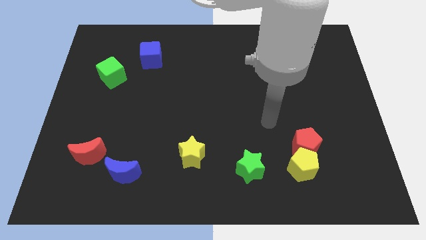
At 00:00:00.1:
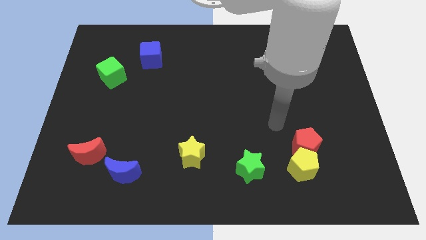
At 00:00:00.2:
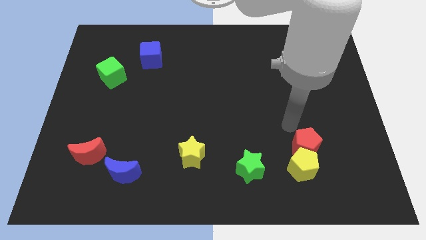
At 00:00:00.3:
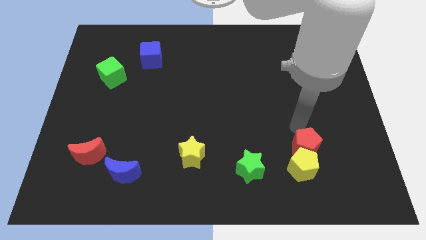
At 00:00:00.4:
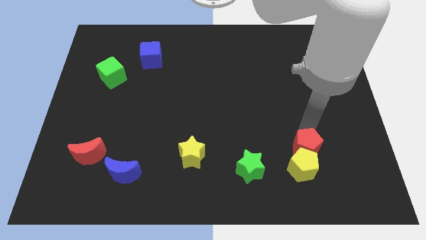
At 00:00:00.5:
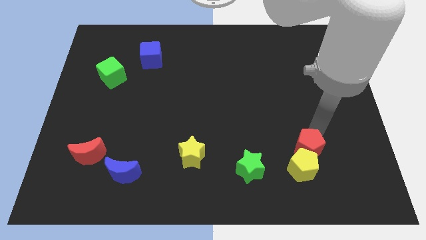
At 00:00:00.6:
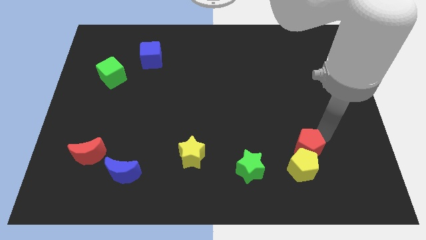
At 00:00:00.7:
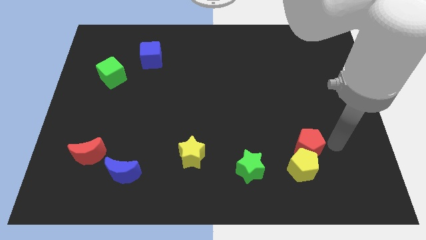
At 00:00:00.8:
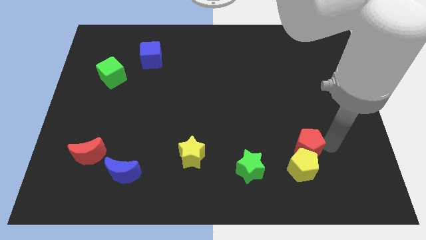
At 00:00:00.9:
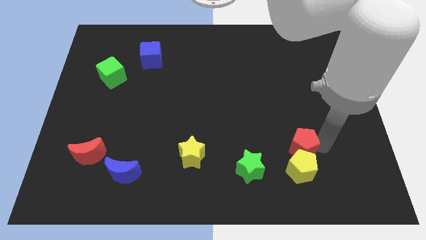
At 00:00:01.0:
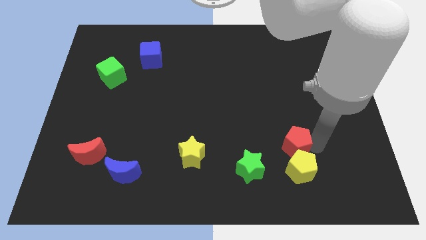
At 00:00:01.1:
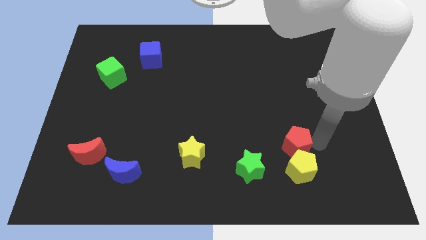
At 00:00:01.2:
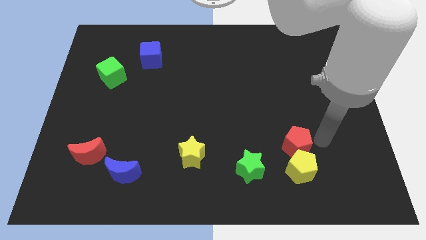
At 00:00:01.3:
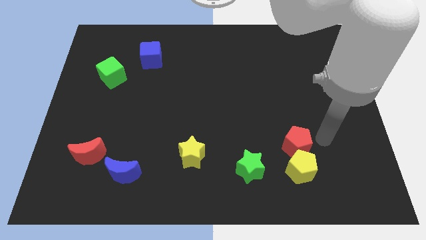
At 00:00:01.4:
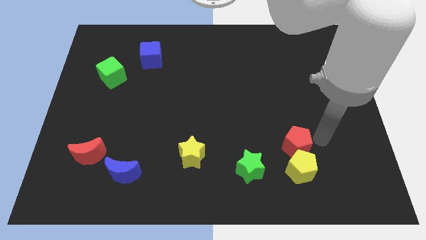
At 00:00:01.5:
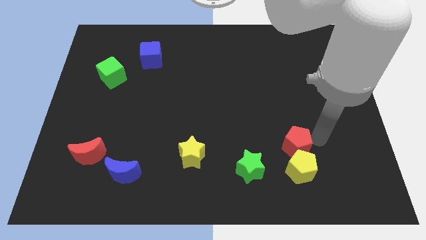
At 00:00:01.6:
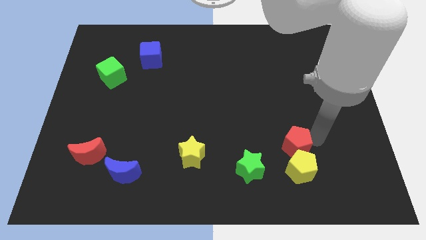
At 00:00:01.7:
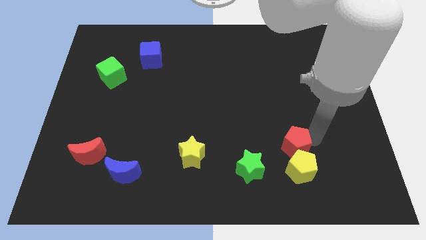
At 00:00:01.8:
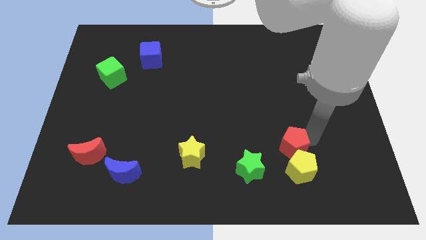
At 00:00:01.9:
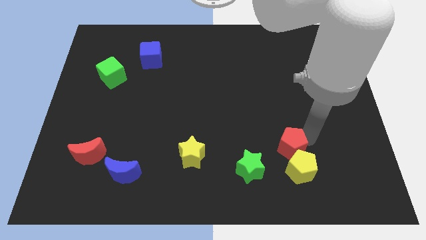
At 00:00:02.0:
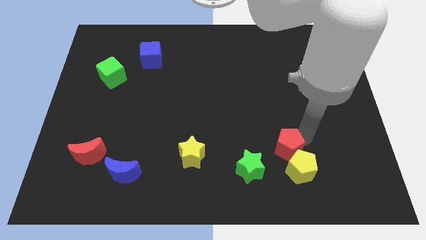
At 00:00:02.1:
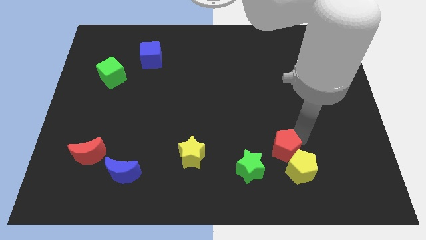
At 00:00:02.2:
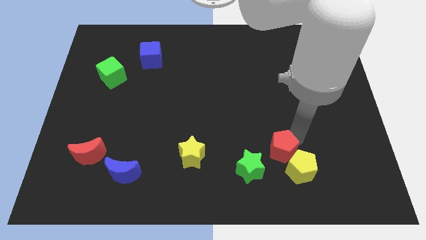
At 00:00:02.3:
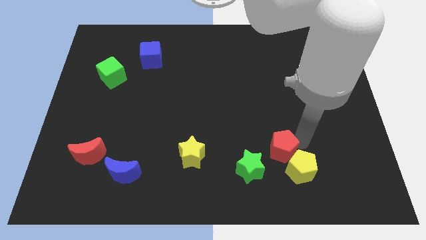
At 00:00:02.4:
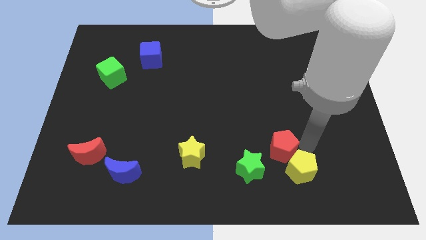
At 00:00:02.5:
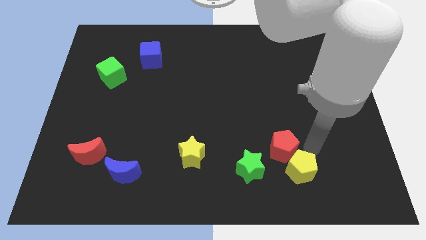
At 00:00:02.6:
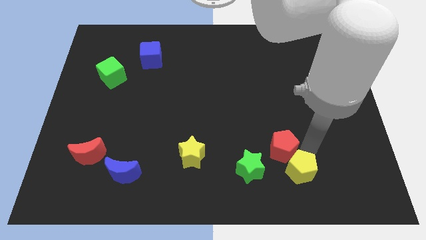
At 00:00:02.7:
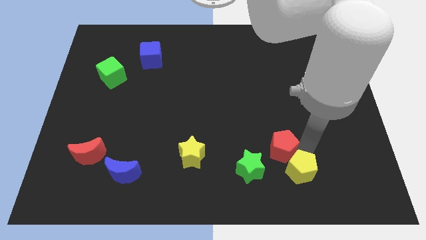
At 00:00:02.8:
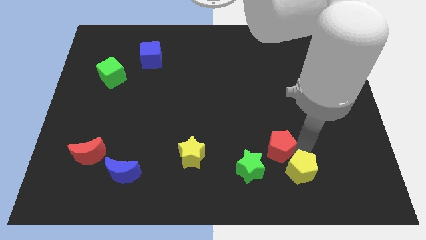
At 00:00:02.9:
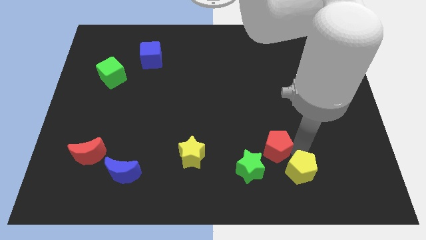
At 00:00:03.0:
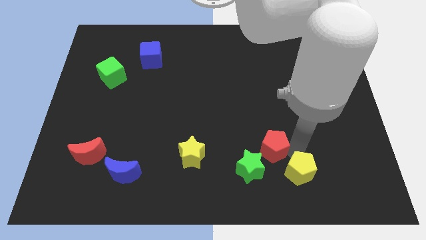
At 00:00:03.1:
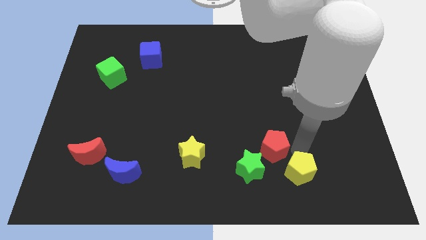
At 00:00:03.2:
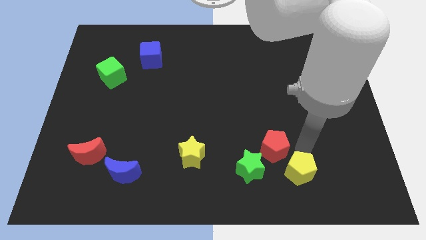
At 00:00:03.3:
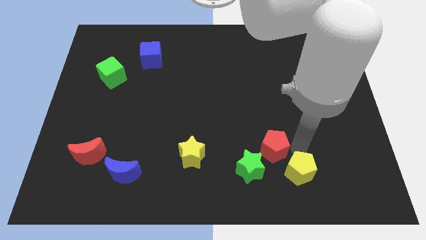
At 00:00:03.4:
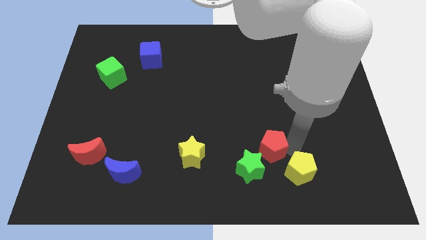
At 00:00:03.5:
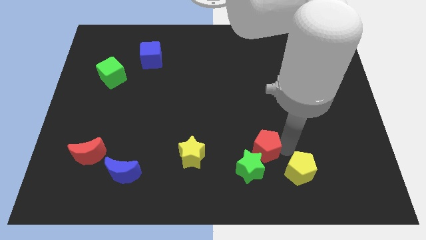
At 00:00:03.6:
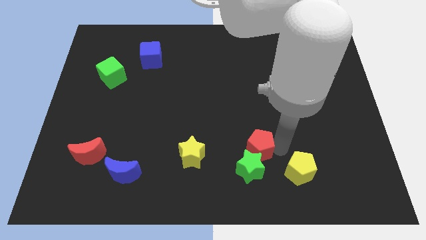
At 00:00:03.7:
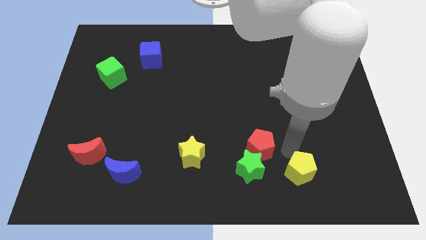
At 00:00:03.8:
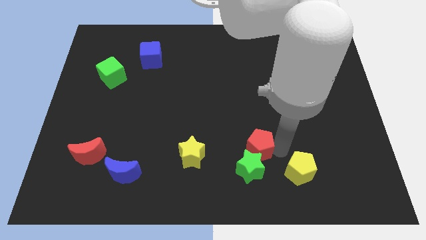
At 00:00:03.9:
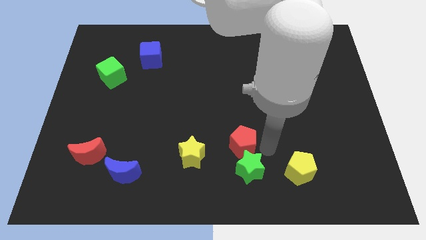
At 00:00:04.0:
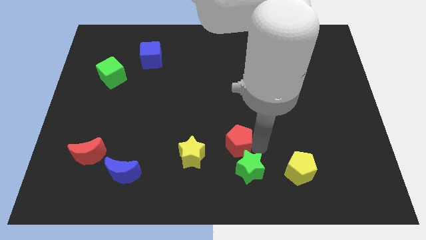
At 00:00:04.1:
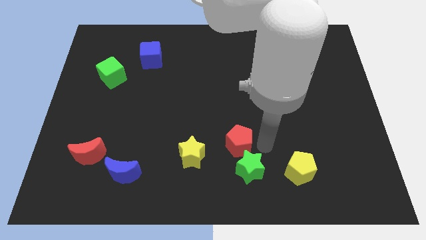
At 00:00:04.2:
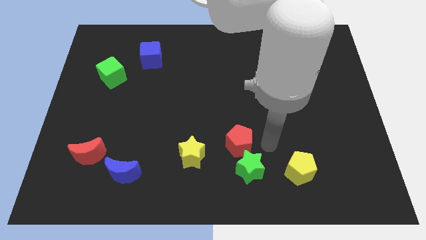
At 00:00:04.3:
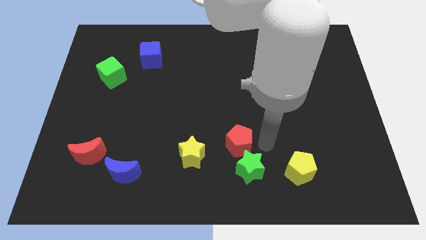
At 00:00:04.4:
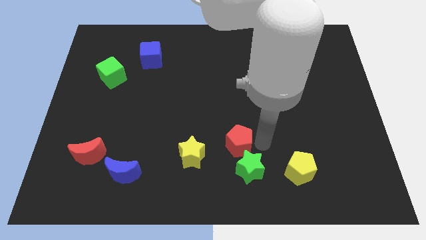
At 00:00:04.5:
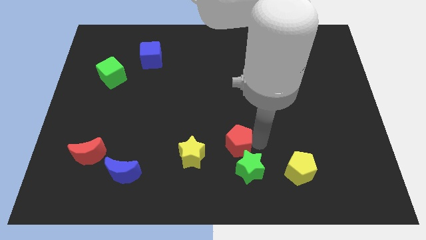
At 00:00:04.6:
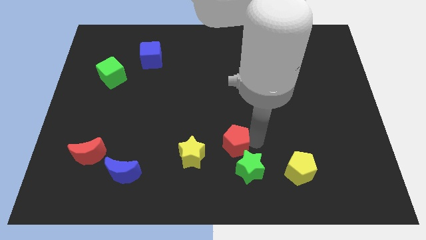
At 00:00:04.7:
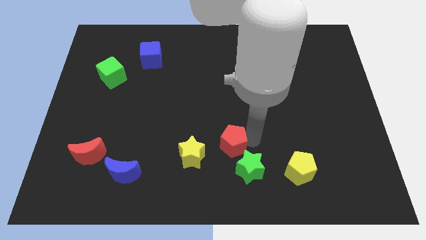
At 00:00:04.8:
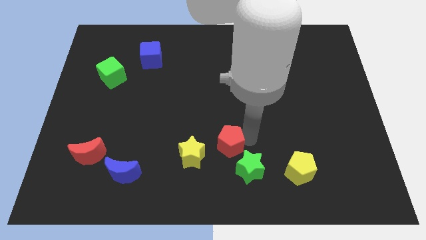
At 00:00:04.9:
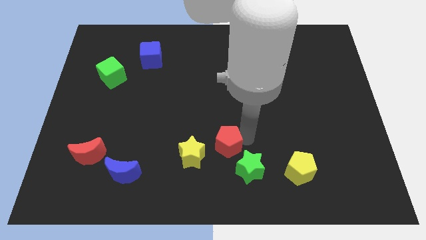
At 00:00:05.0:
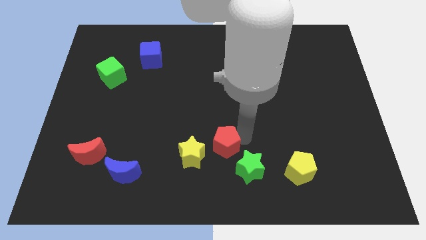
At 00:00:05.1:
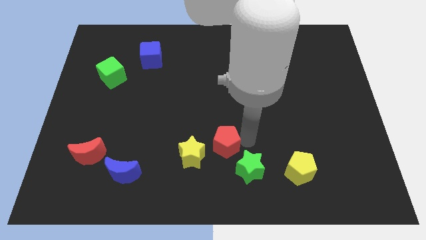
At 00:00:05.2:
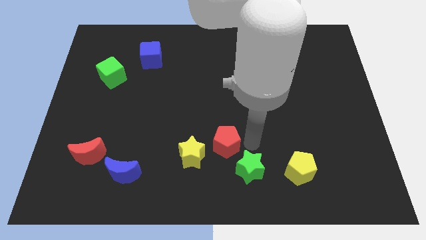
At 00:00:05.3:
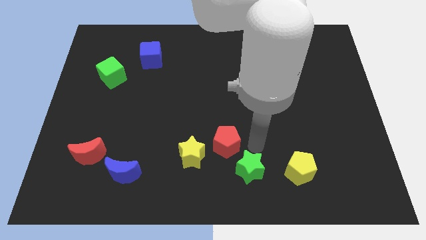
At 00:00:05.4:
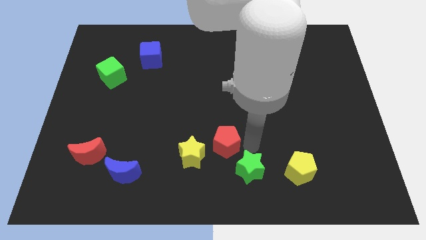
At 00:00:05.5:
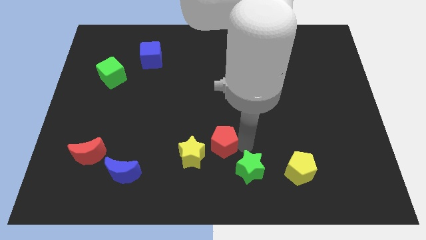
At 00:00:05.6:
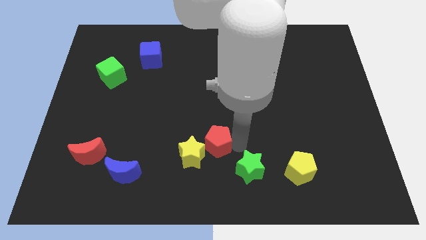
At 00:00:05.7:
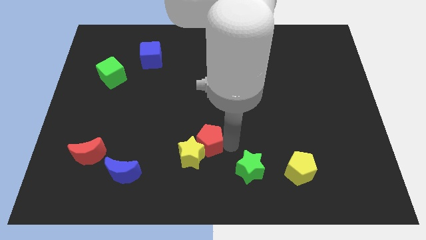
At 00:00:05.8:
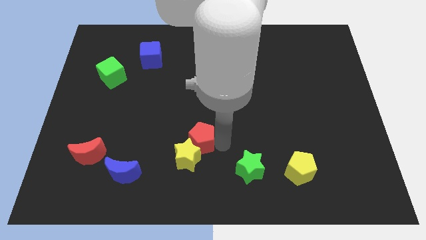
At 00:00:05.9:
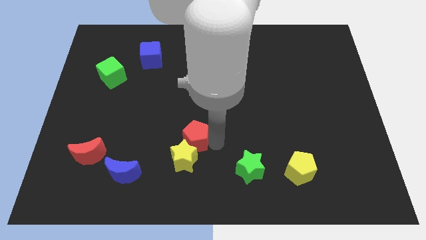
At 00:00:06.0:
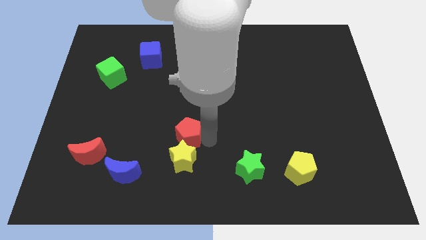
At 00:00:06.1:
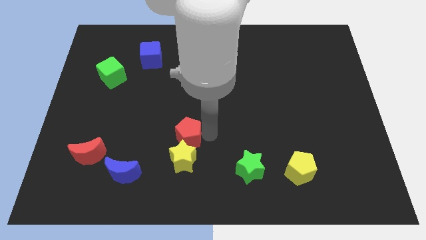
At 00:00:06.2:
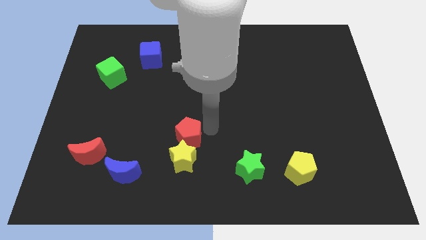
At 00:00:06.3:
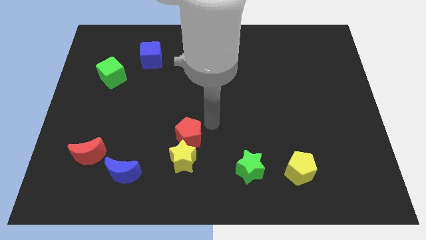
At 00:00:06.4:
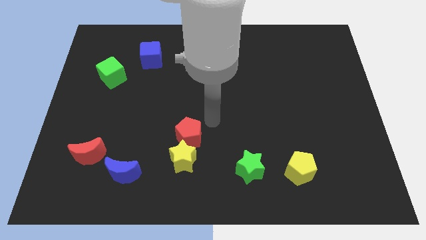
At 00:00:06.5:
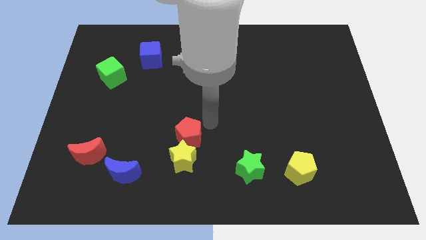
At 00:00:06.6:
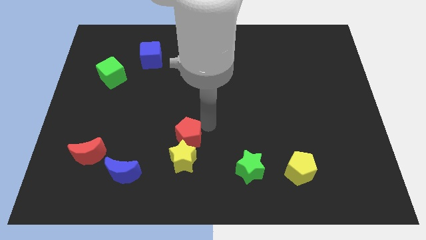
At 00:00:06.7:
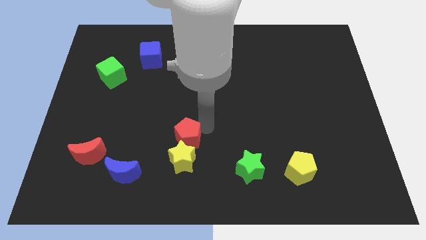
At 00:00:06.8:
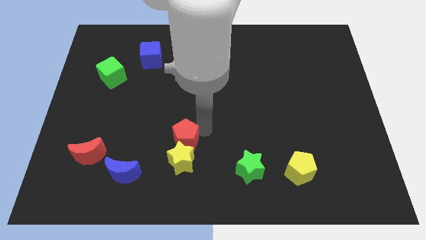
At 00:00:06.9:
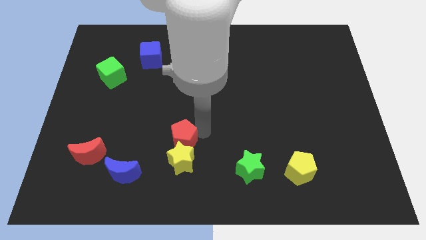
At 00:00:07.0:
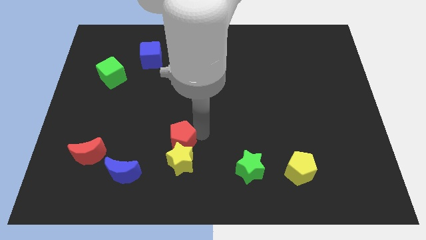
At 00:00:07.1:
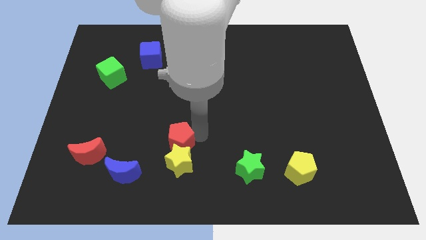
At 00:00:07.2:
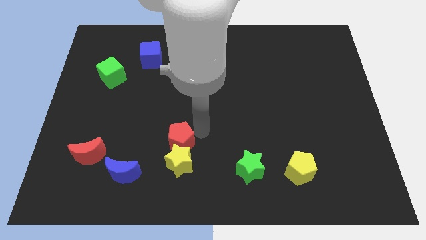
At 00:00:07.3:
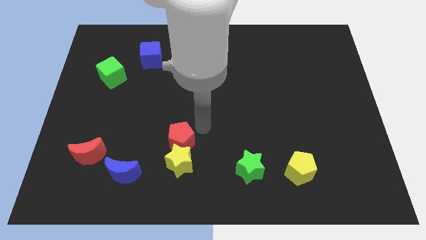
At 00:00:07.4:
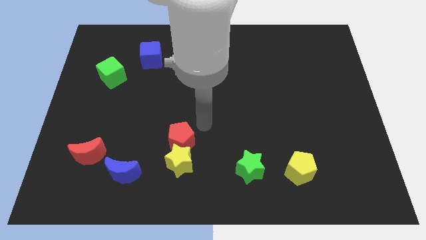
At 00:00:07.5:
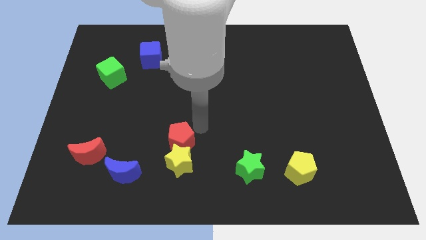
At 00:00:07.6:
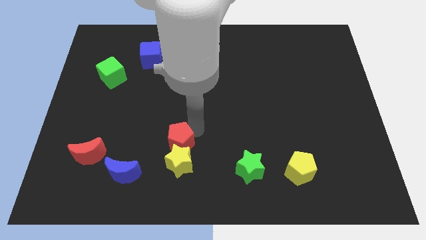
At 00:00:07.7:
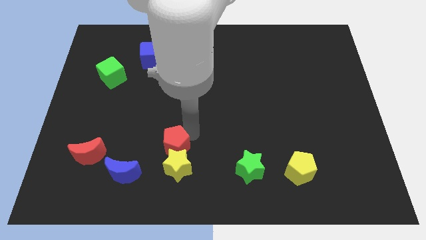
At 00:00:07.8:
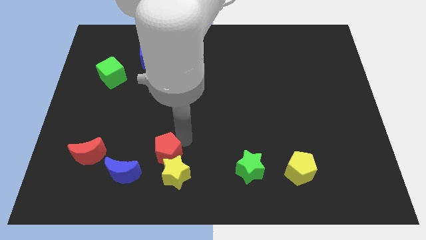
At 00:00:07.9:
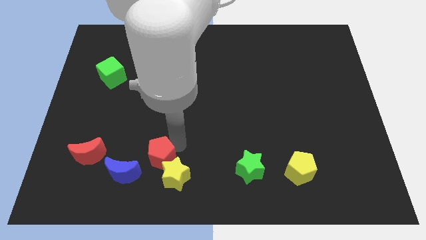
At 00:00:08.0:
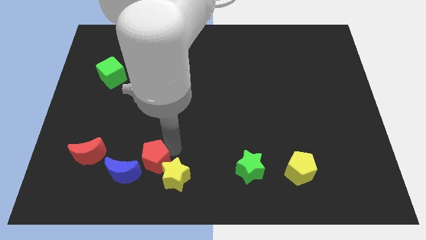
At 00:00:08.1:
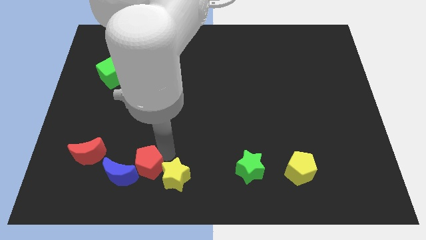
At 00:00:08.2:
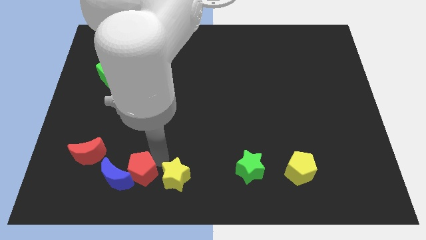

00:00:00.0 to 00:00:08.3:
push the red pentagon close to the blue moon
